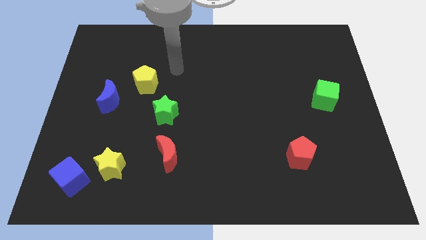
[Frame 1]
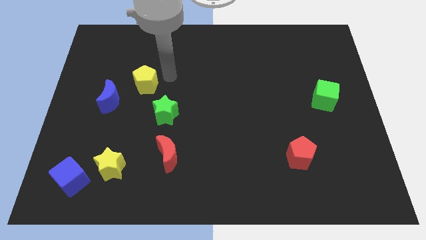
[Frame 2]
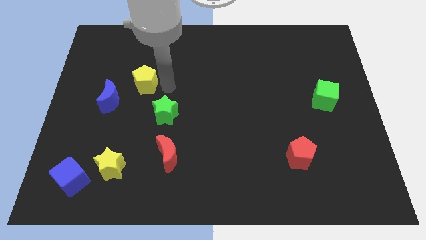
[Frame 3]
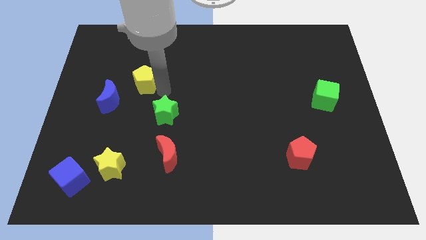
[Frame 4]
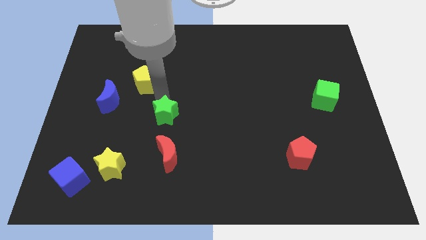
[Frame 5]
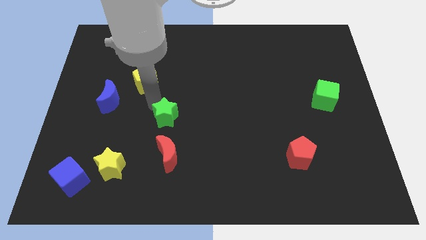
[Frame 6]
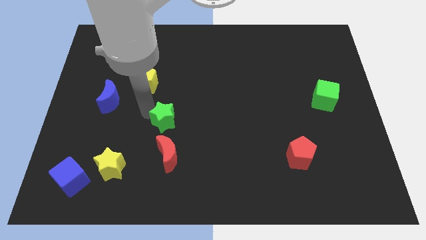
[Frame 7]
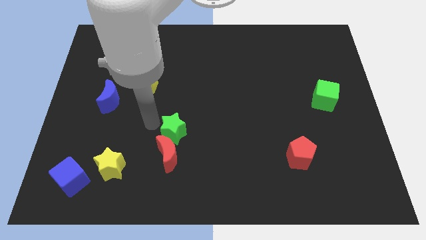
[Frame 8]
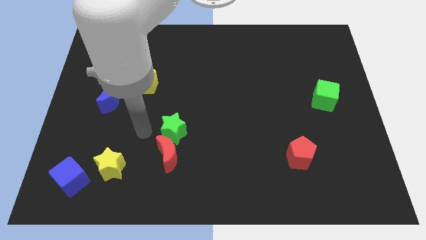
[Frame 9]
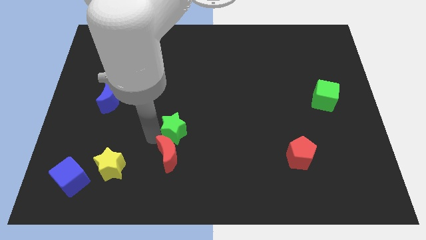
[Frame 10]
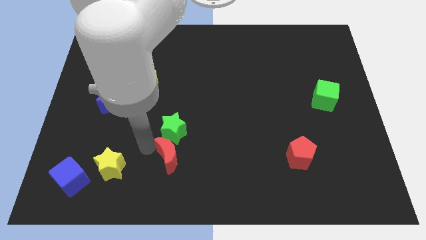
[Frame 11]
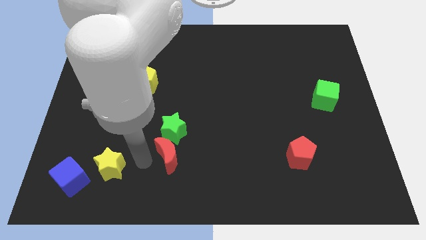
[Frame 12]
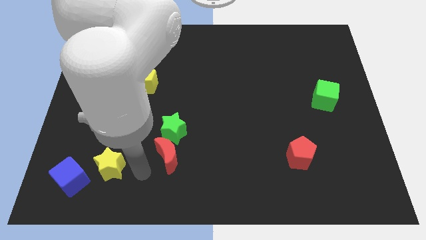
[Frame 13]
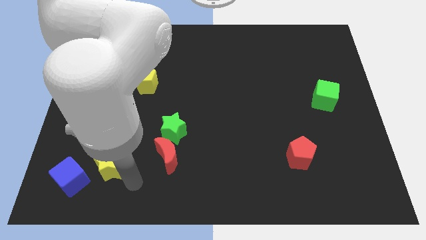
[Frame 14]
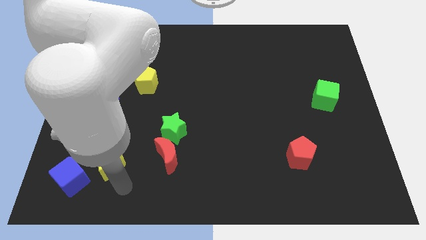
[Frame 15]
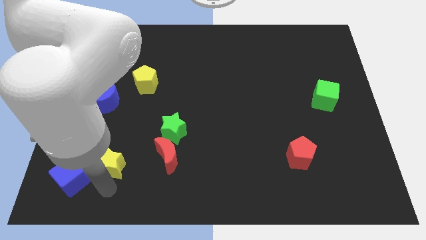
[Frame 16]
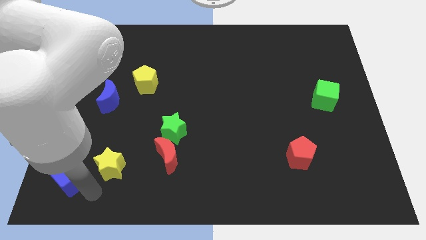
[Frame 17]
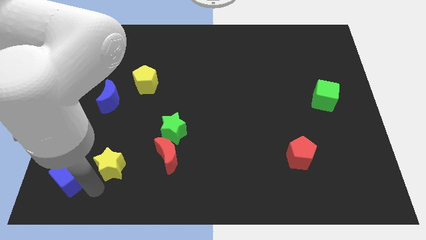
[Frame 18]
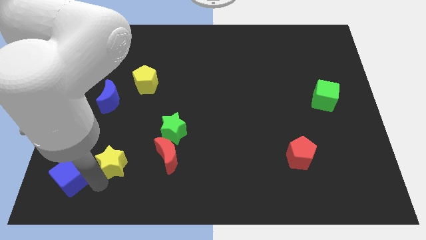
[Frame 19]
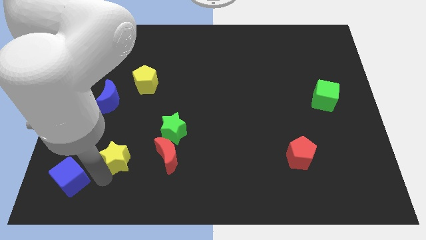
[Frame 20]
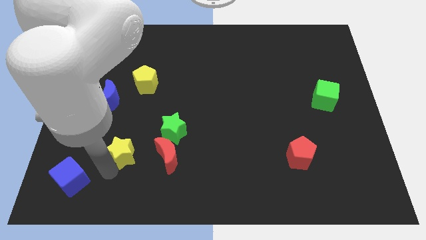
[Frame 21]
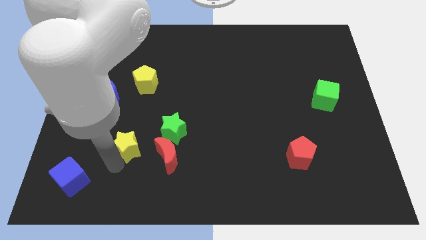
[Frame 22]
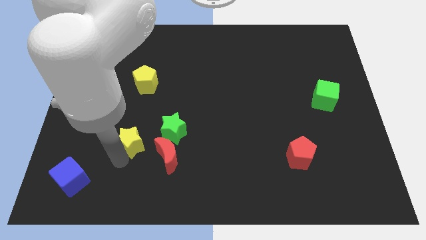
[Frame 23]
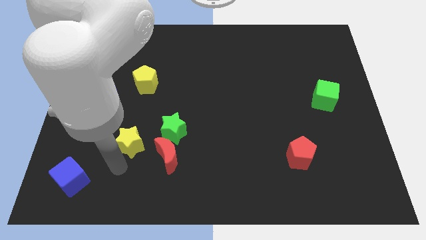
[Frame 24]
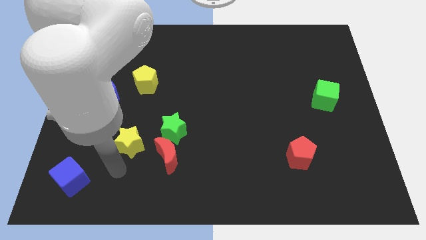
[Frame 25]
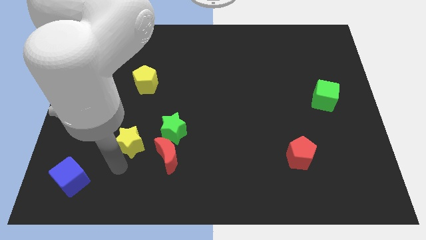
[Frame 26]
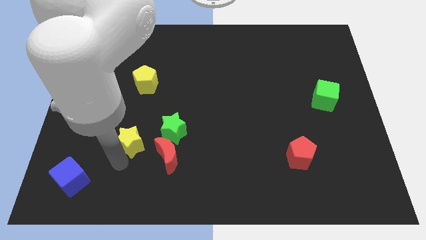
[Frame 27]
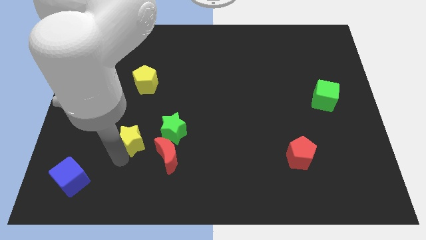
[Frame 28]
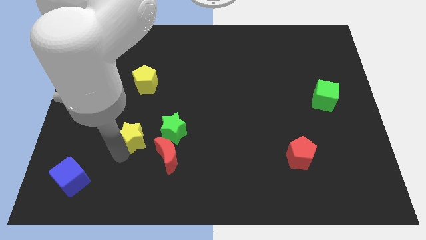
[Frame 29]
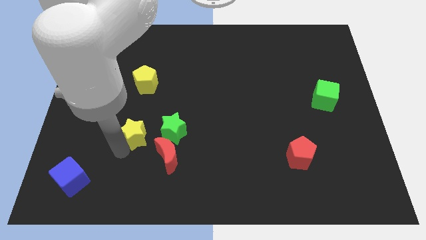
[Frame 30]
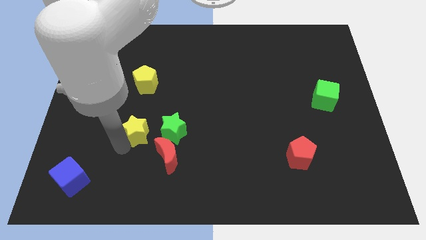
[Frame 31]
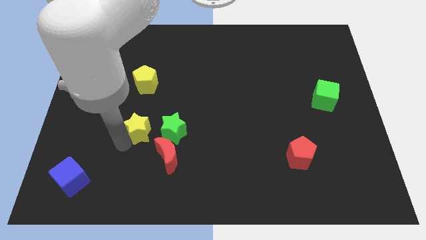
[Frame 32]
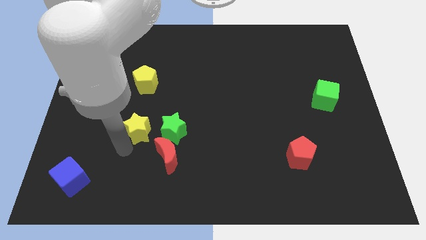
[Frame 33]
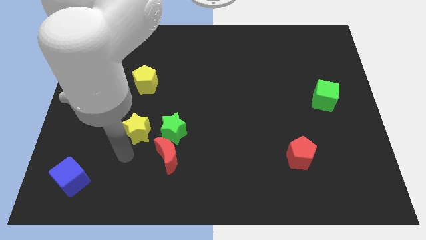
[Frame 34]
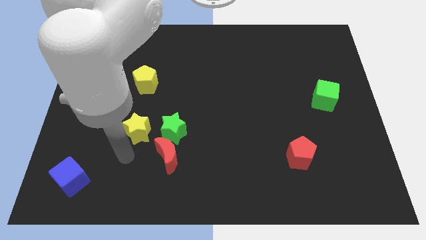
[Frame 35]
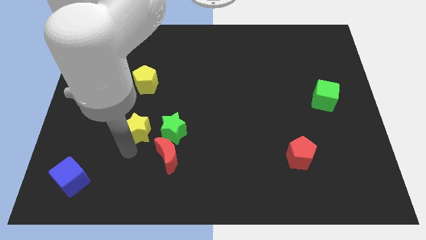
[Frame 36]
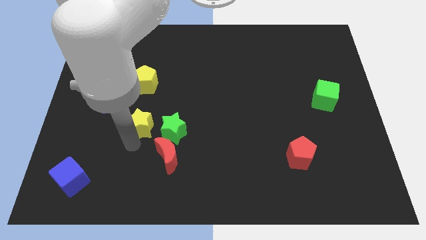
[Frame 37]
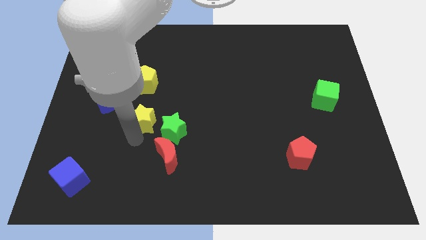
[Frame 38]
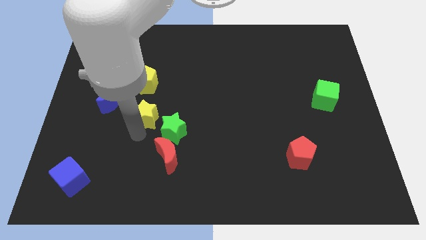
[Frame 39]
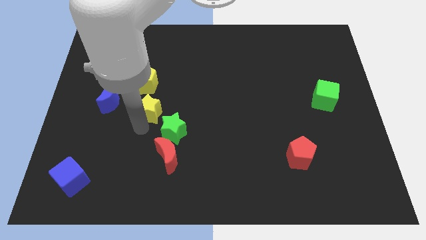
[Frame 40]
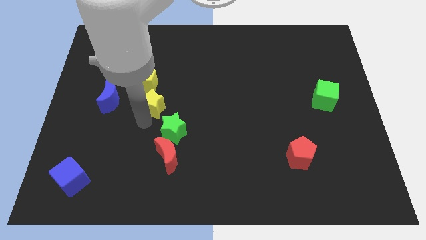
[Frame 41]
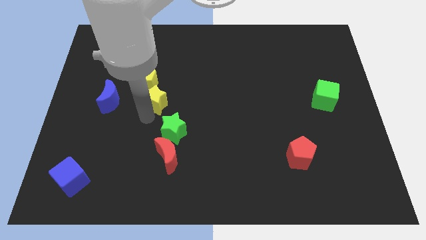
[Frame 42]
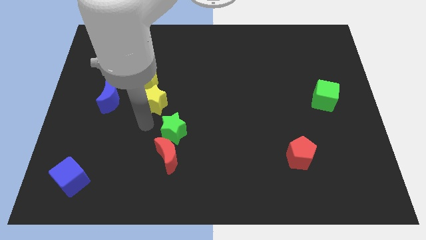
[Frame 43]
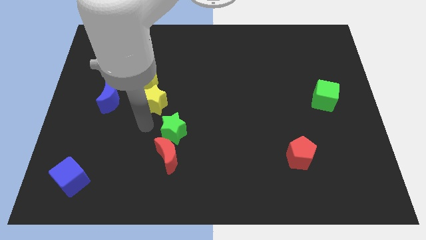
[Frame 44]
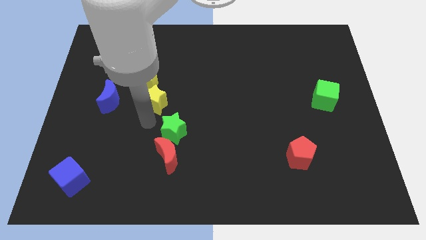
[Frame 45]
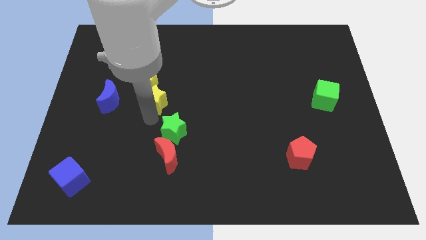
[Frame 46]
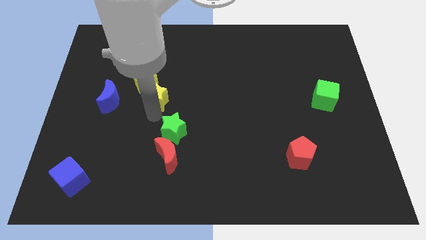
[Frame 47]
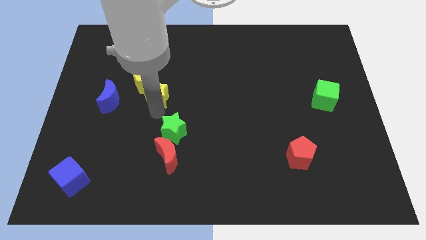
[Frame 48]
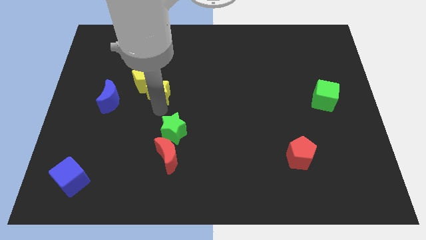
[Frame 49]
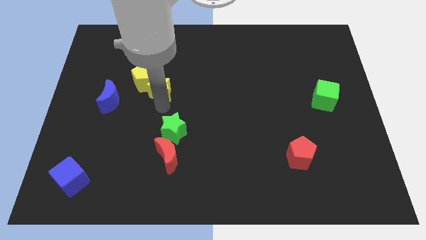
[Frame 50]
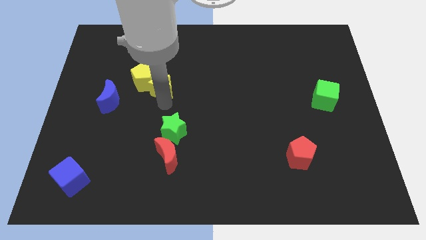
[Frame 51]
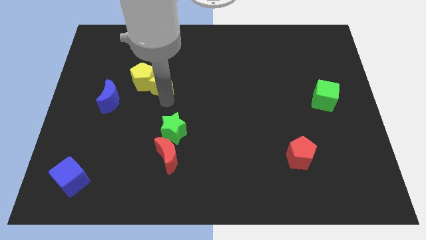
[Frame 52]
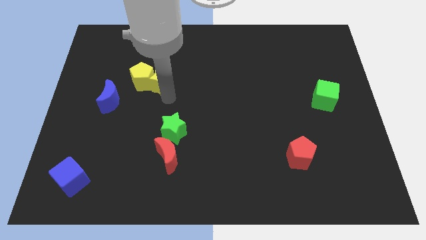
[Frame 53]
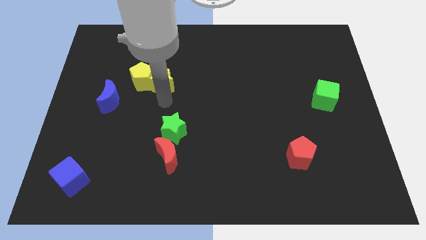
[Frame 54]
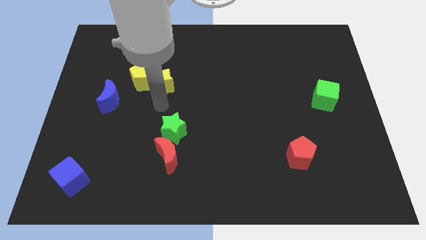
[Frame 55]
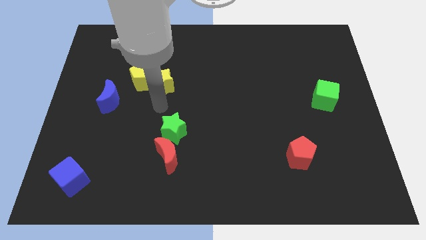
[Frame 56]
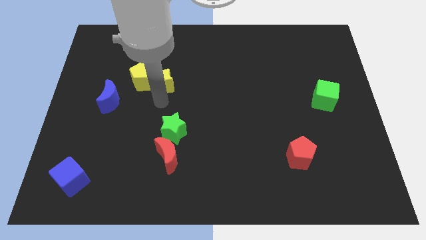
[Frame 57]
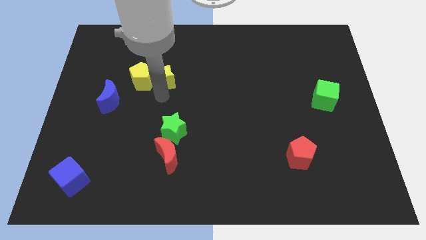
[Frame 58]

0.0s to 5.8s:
slide the yellow star to the top right of the yellow pentagon

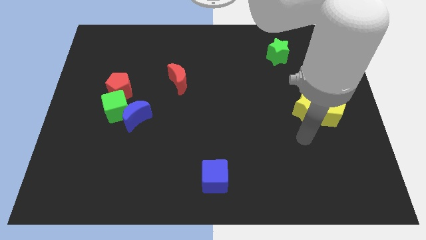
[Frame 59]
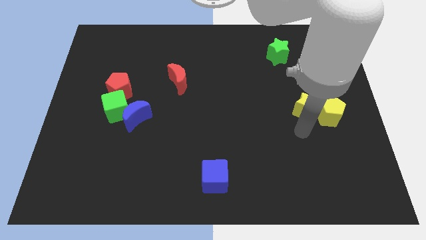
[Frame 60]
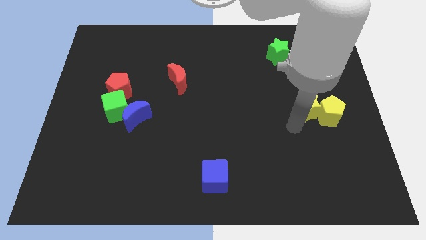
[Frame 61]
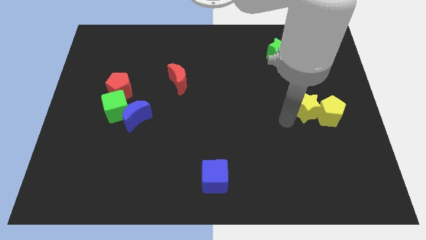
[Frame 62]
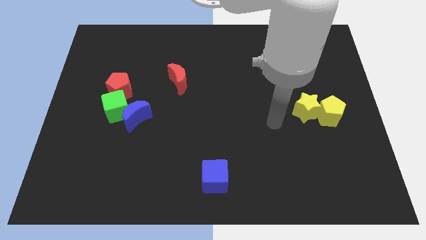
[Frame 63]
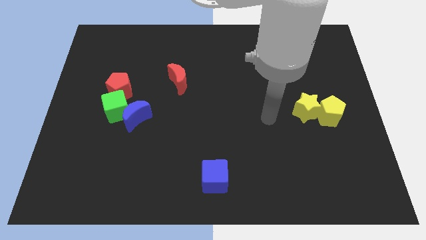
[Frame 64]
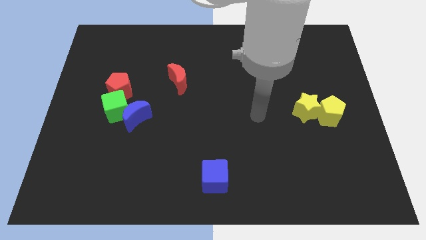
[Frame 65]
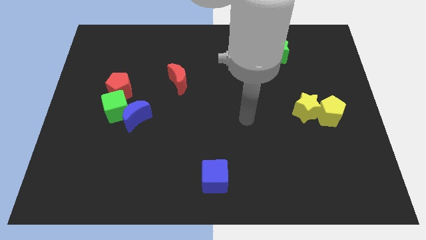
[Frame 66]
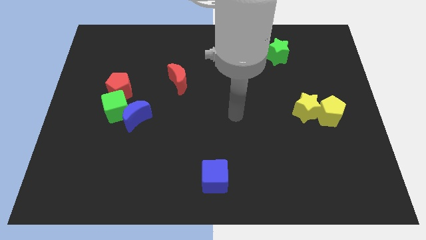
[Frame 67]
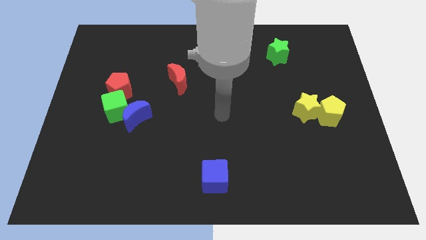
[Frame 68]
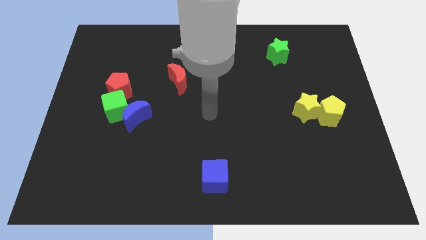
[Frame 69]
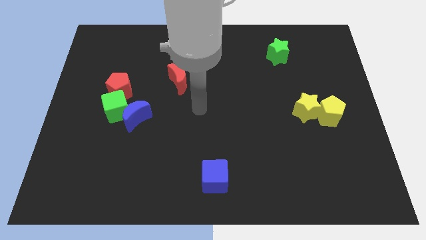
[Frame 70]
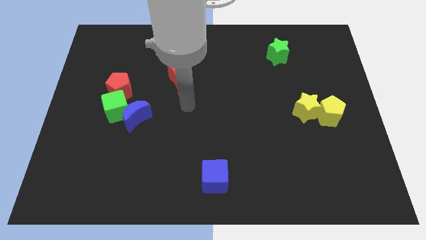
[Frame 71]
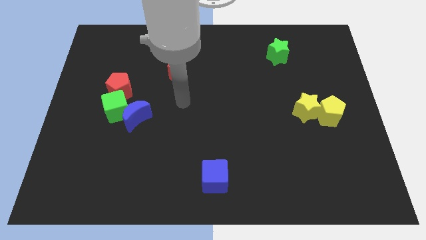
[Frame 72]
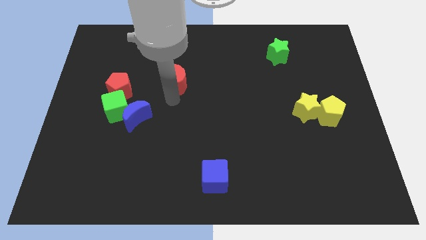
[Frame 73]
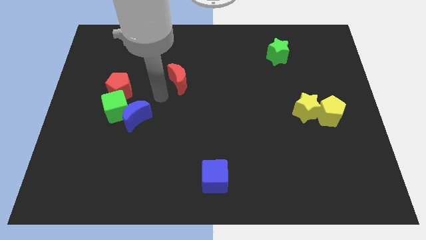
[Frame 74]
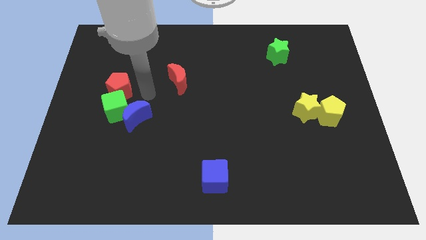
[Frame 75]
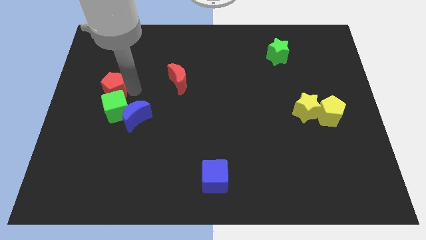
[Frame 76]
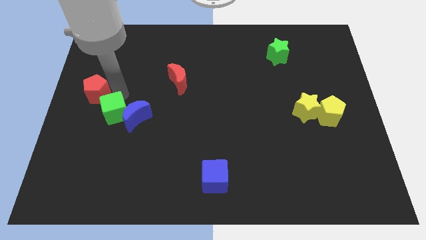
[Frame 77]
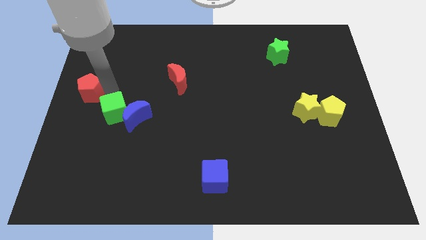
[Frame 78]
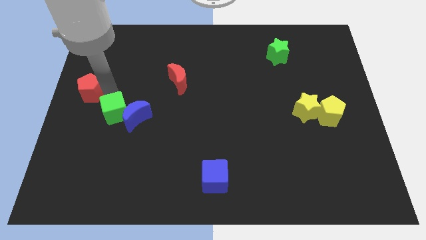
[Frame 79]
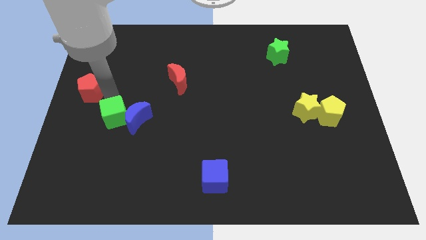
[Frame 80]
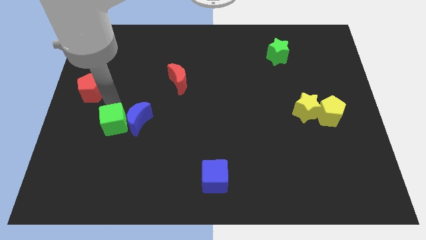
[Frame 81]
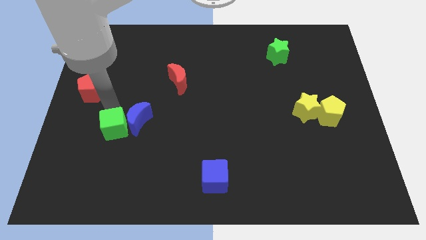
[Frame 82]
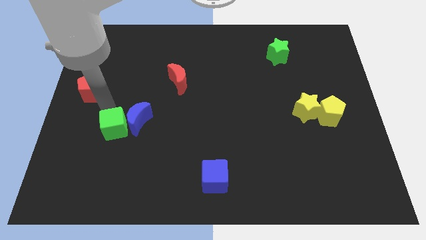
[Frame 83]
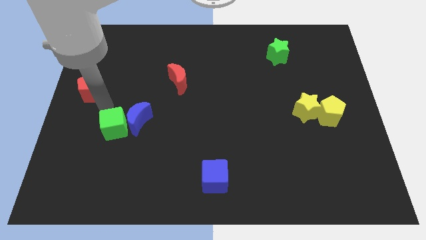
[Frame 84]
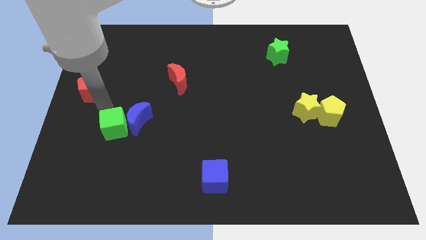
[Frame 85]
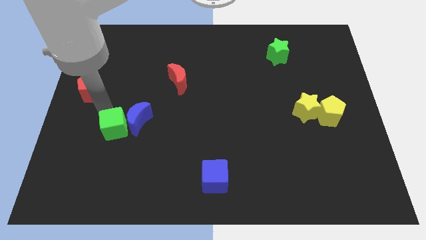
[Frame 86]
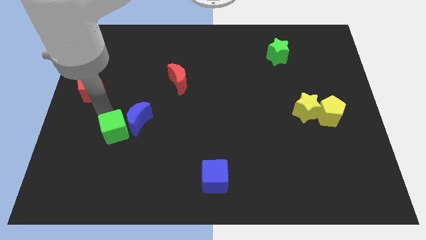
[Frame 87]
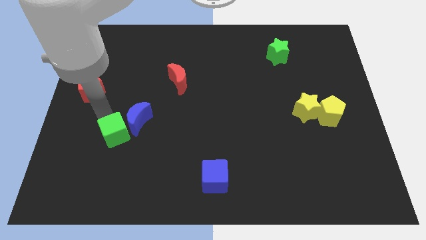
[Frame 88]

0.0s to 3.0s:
push the green cube to the bottom of the blue moon
